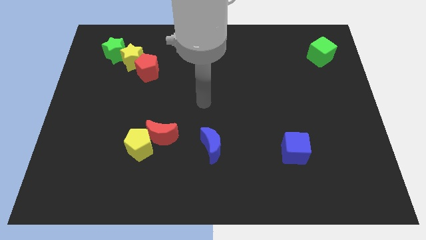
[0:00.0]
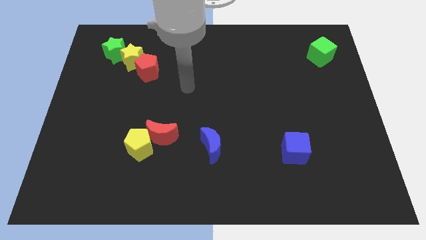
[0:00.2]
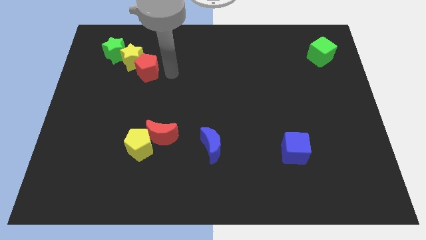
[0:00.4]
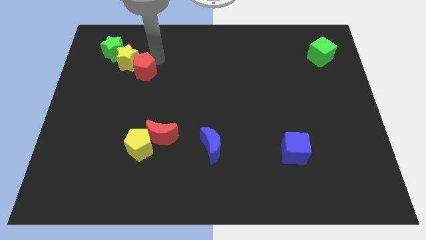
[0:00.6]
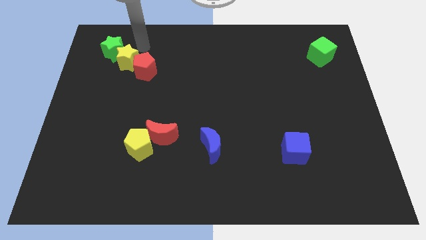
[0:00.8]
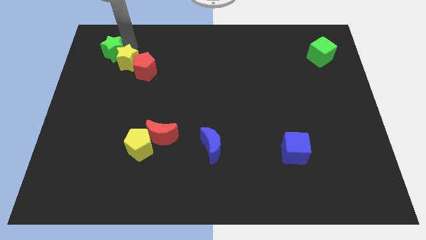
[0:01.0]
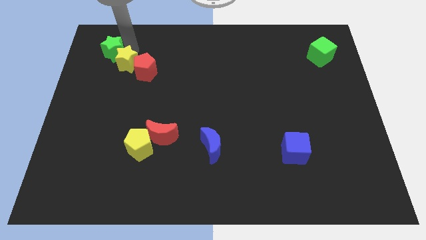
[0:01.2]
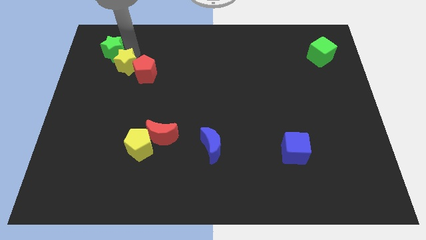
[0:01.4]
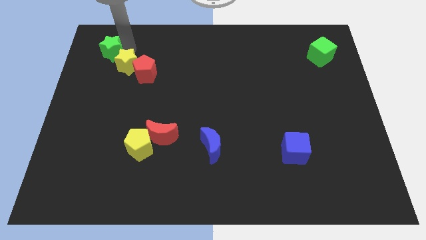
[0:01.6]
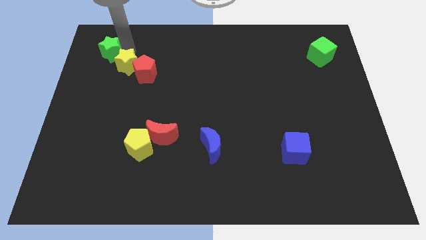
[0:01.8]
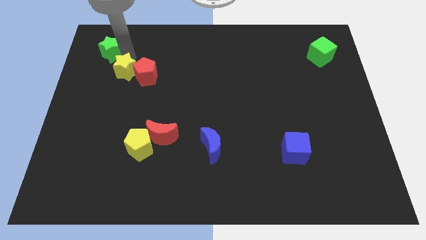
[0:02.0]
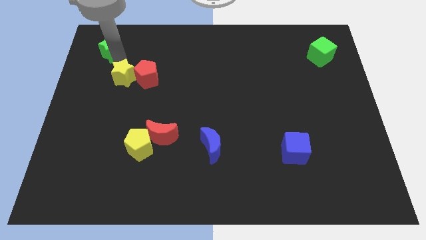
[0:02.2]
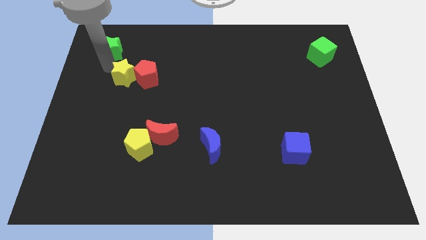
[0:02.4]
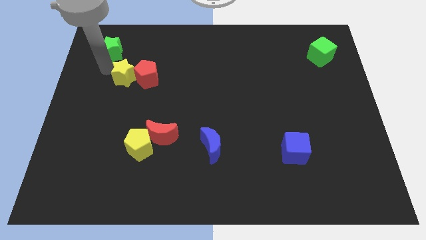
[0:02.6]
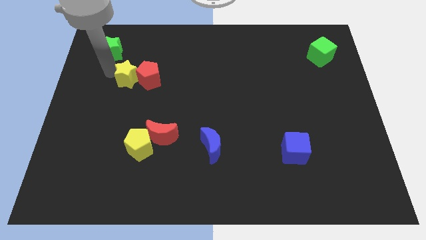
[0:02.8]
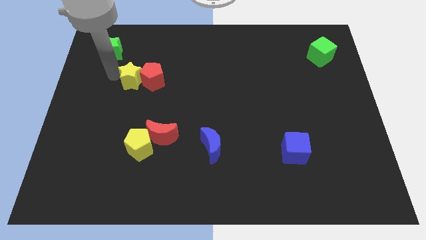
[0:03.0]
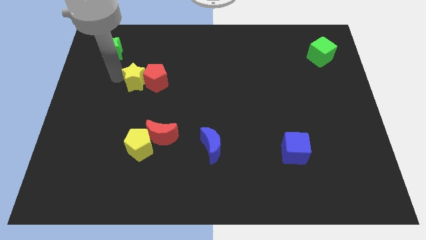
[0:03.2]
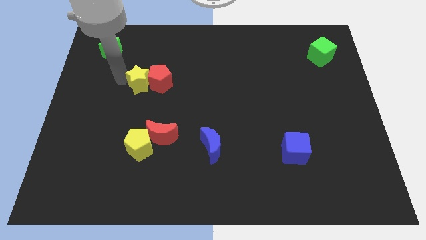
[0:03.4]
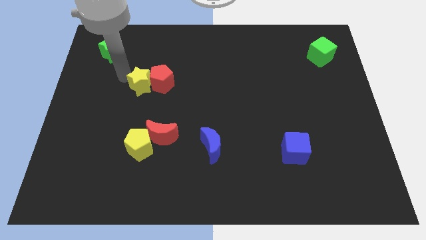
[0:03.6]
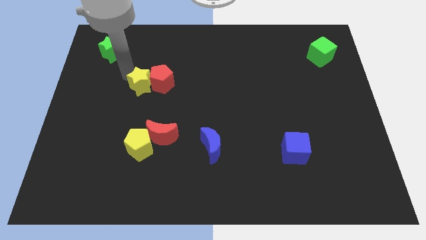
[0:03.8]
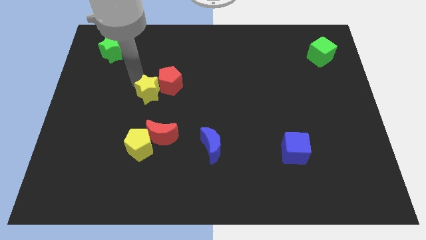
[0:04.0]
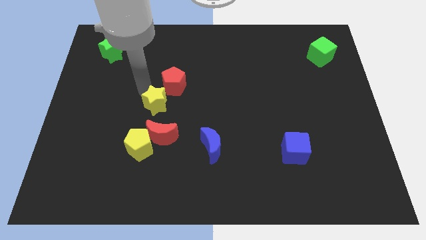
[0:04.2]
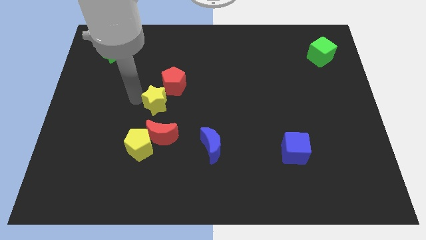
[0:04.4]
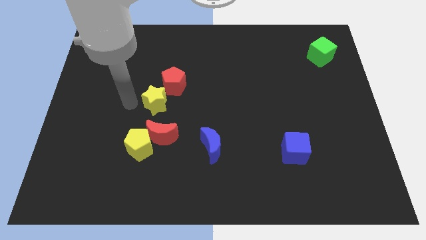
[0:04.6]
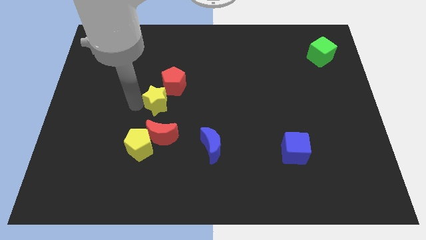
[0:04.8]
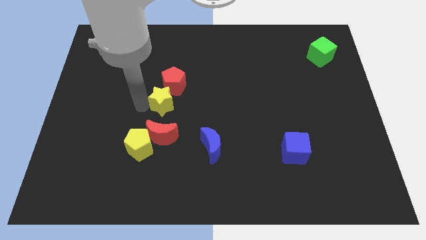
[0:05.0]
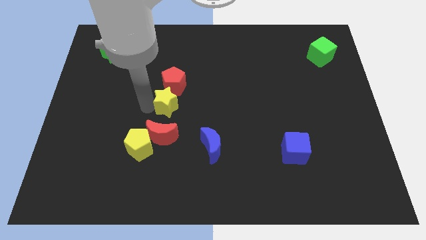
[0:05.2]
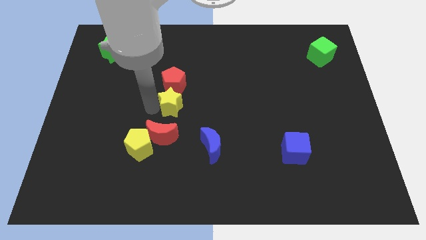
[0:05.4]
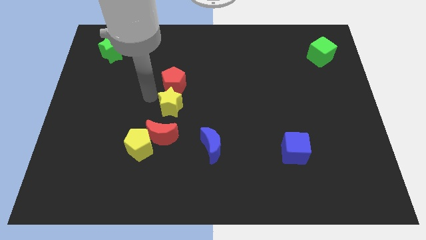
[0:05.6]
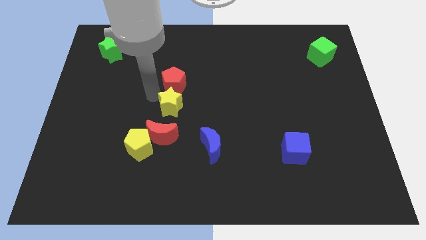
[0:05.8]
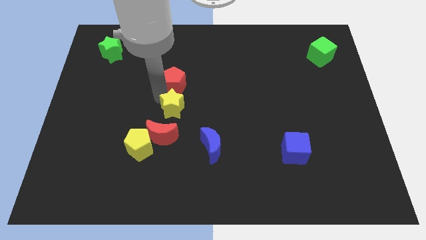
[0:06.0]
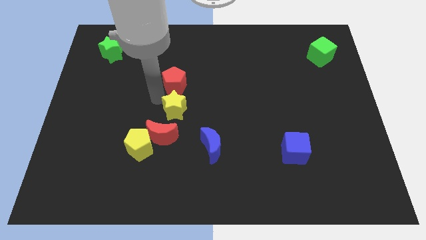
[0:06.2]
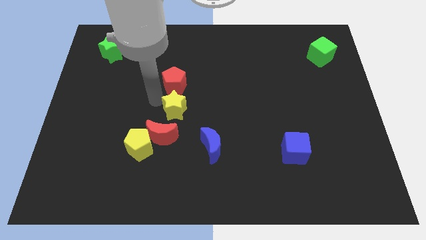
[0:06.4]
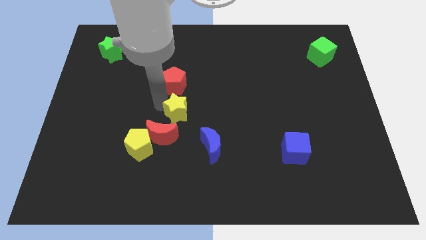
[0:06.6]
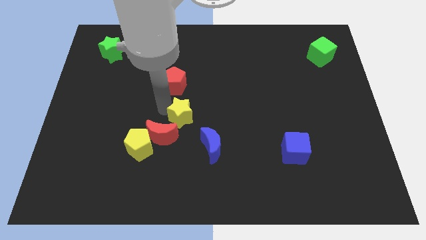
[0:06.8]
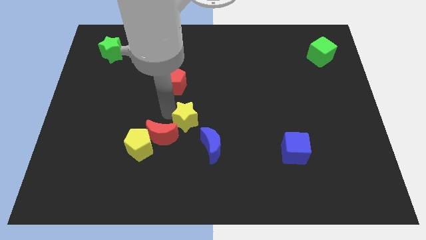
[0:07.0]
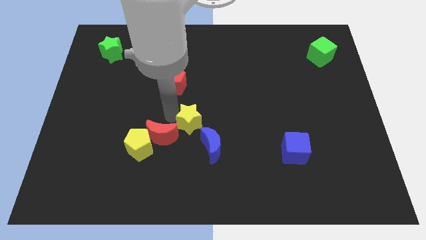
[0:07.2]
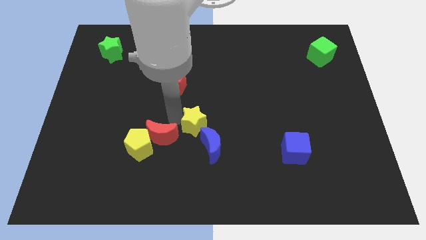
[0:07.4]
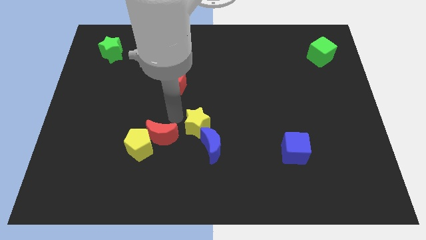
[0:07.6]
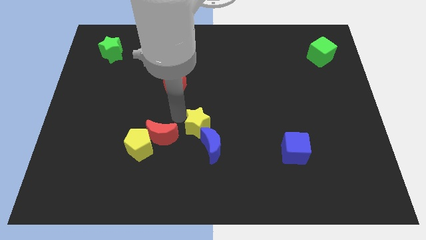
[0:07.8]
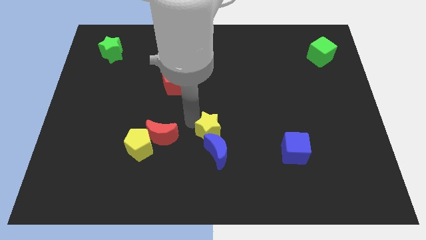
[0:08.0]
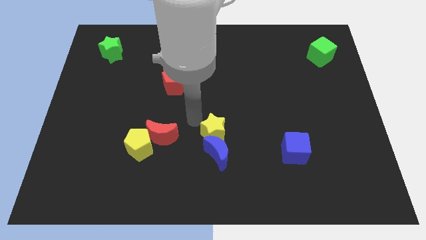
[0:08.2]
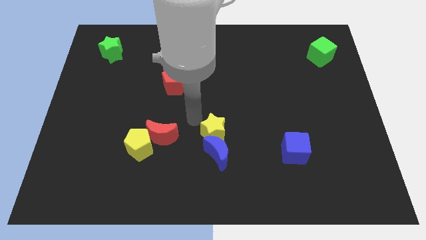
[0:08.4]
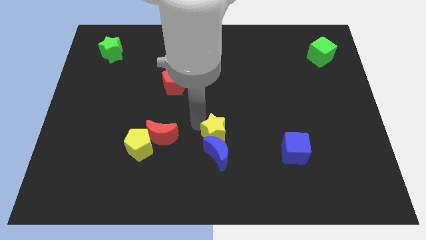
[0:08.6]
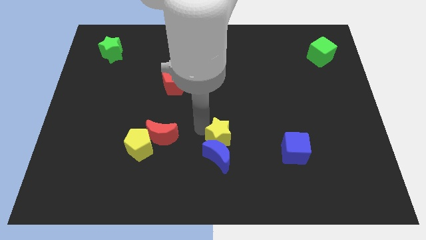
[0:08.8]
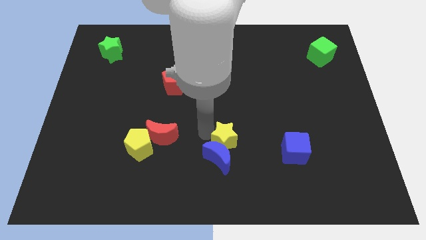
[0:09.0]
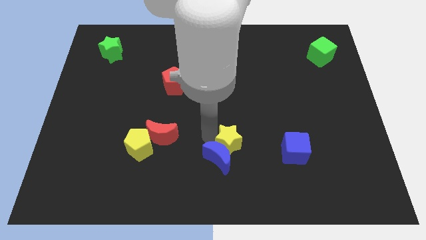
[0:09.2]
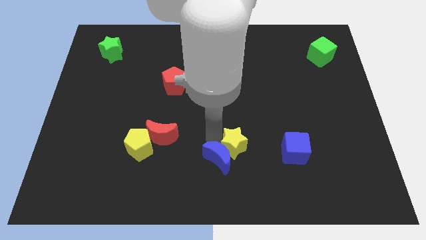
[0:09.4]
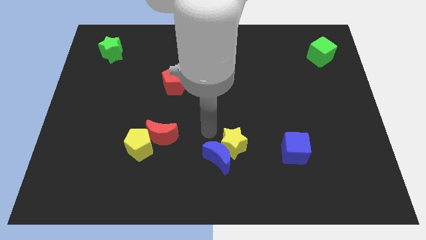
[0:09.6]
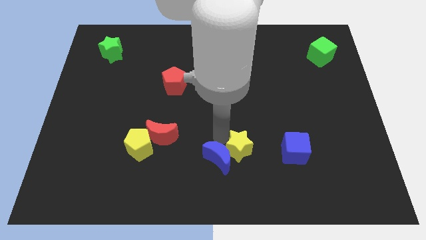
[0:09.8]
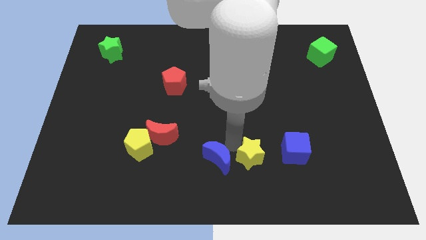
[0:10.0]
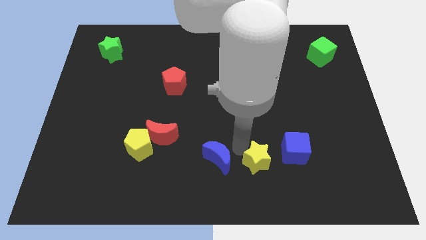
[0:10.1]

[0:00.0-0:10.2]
push the yellow star to the bottom left side of the blue cube

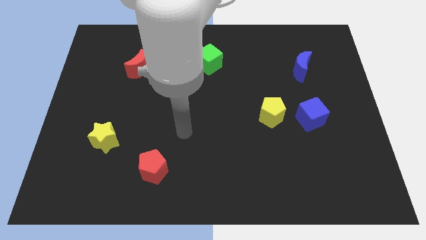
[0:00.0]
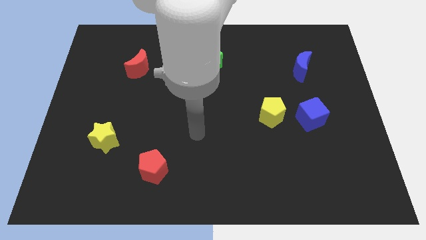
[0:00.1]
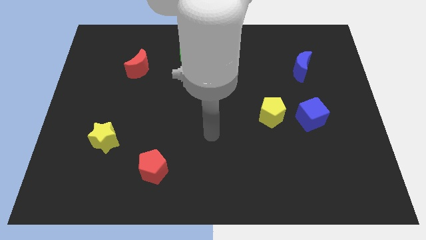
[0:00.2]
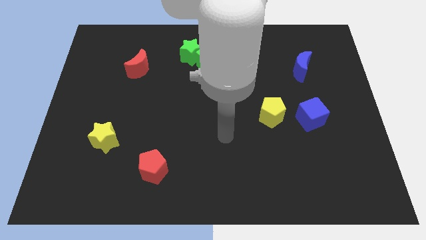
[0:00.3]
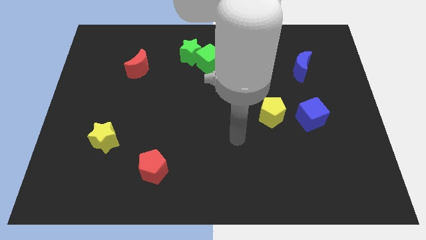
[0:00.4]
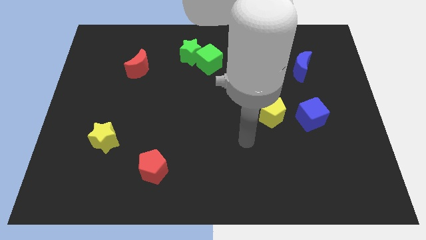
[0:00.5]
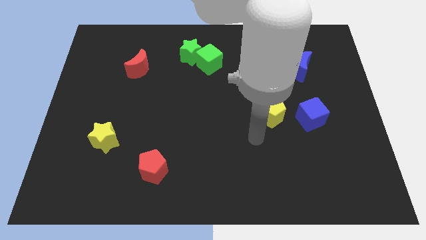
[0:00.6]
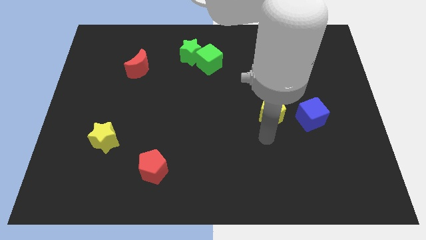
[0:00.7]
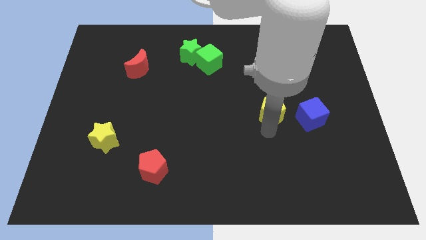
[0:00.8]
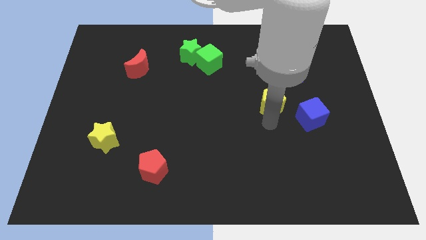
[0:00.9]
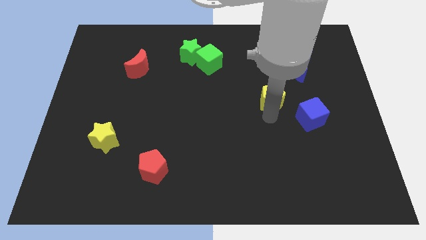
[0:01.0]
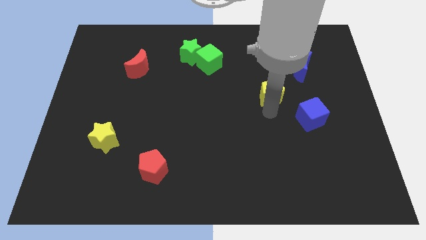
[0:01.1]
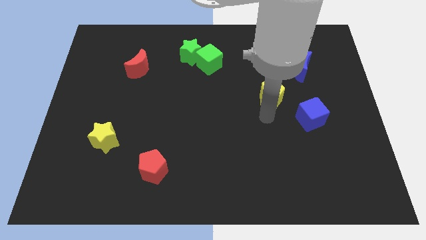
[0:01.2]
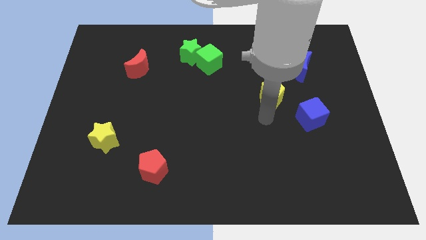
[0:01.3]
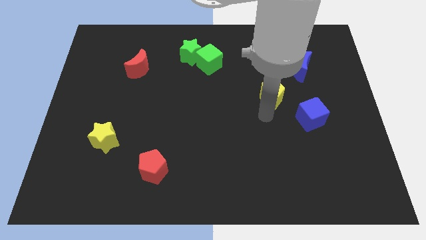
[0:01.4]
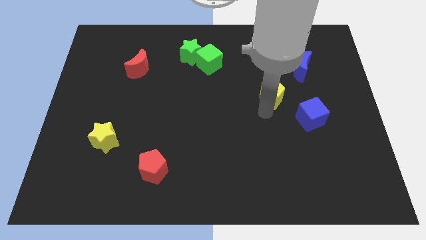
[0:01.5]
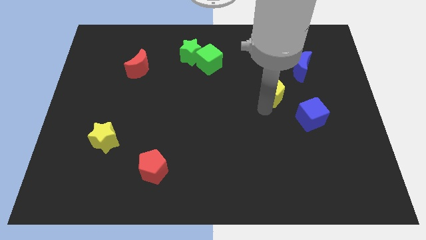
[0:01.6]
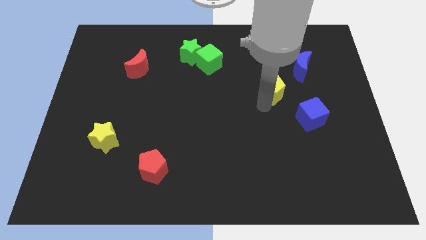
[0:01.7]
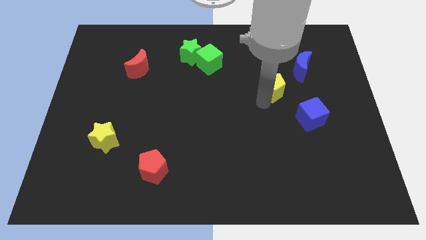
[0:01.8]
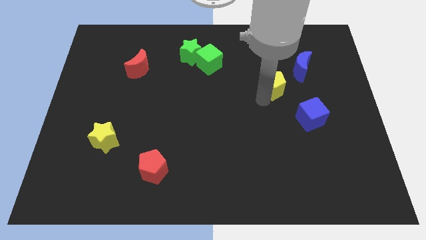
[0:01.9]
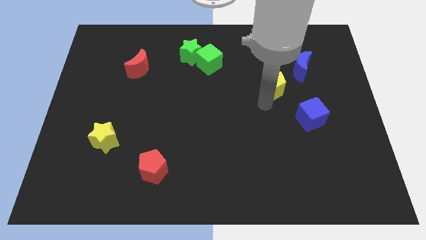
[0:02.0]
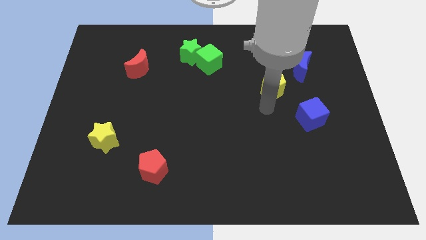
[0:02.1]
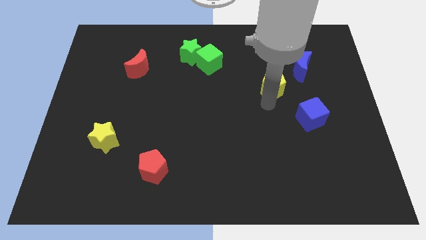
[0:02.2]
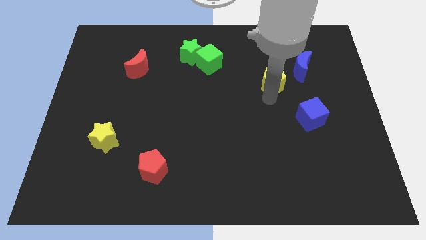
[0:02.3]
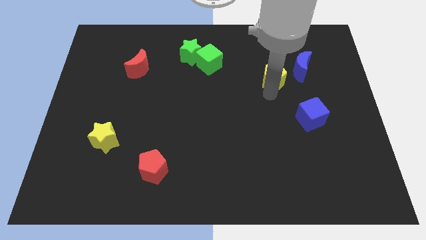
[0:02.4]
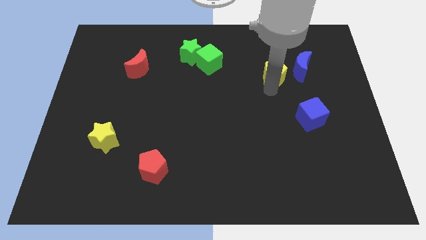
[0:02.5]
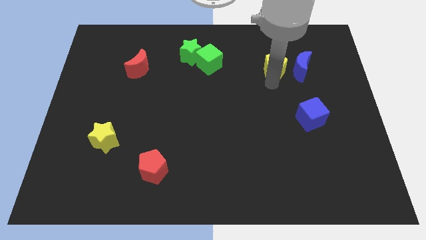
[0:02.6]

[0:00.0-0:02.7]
push the yellow pentagon to the top left of the blue moon
